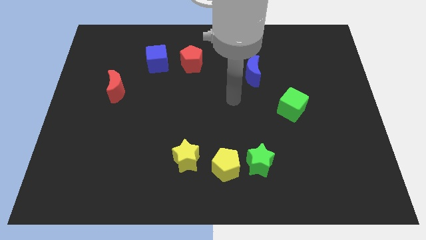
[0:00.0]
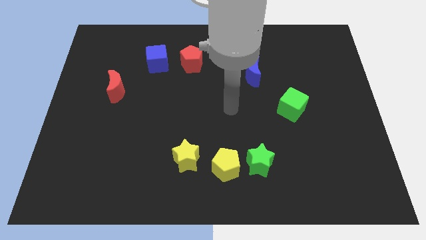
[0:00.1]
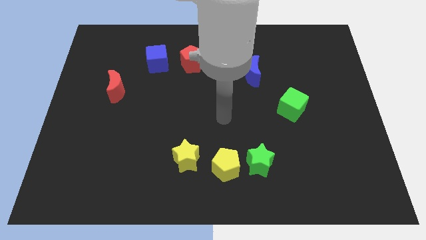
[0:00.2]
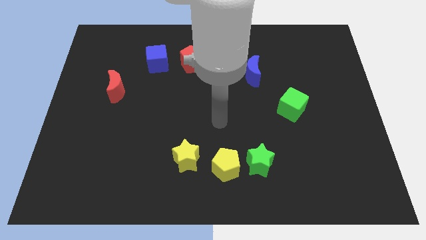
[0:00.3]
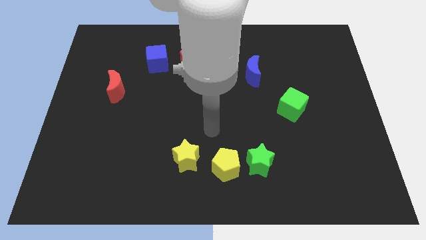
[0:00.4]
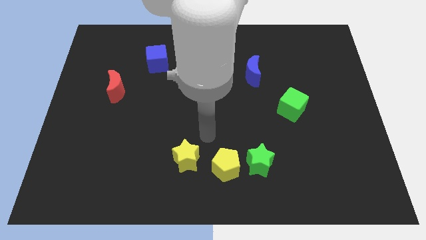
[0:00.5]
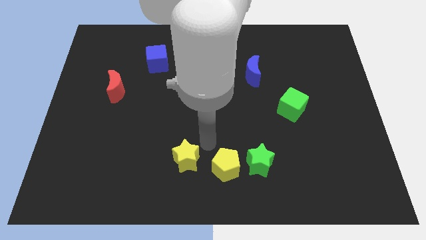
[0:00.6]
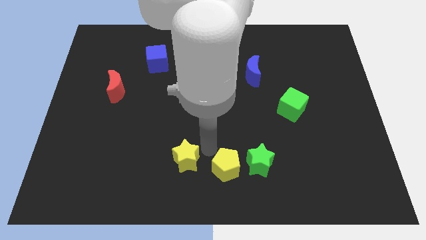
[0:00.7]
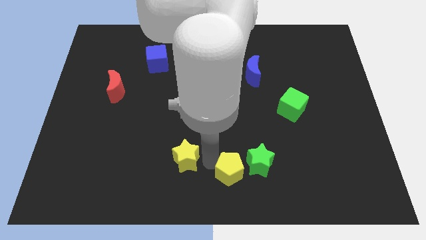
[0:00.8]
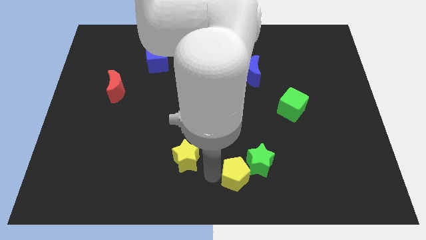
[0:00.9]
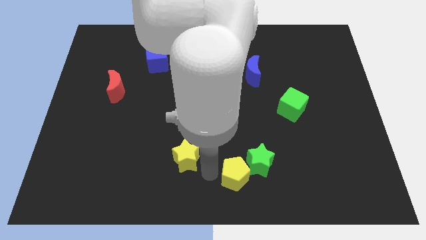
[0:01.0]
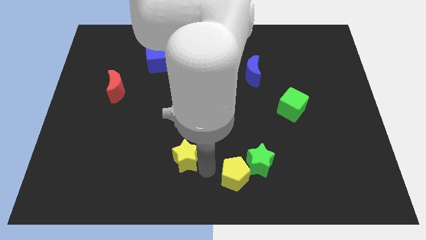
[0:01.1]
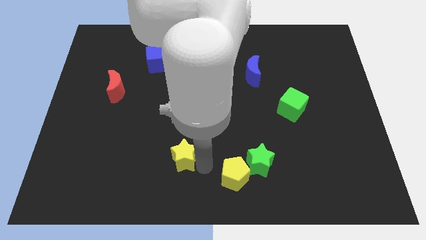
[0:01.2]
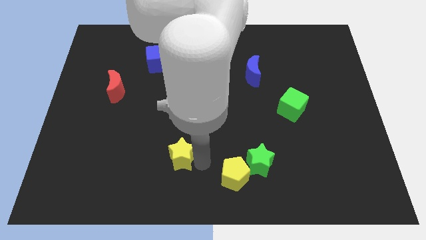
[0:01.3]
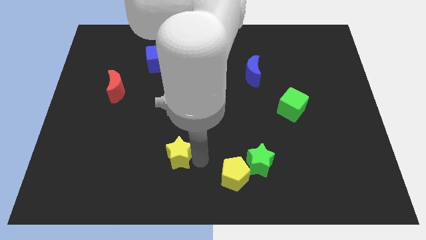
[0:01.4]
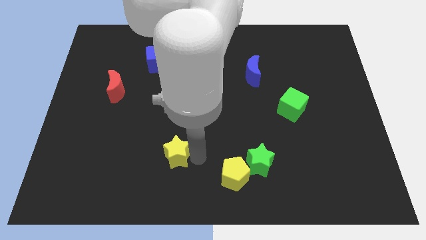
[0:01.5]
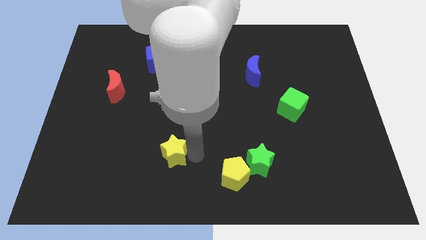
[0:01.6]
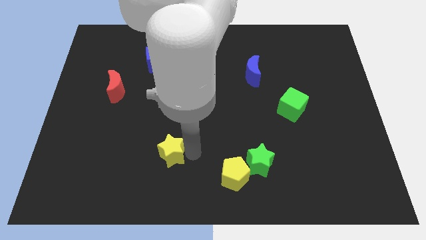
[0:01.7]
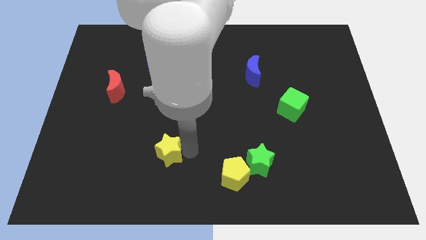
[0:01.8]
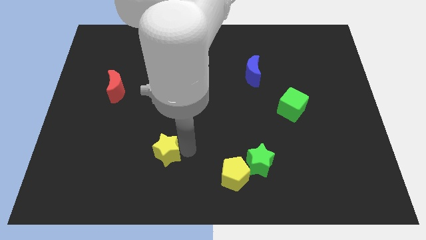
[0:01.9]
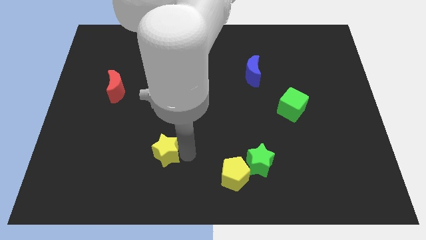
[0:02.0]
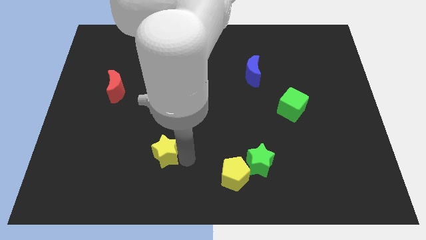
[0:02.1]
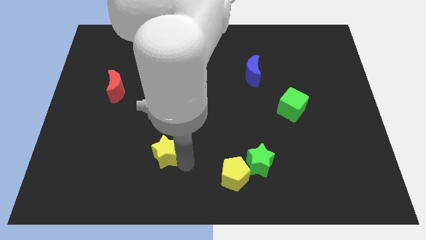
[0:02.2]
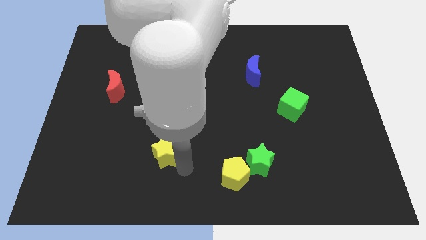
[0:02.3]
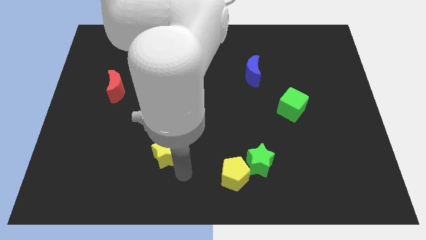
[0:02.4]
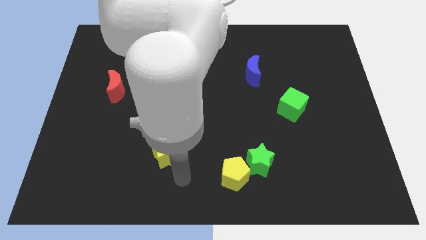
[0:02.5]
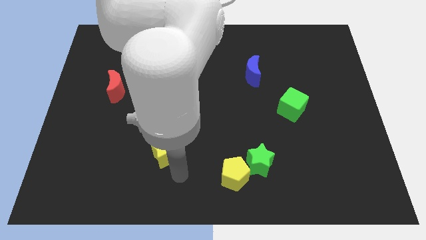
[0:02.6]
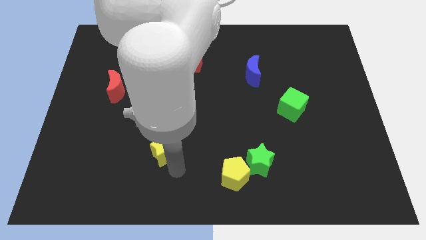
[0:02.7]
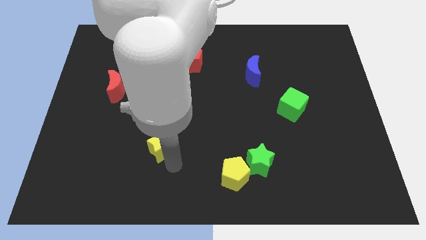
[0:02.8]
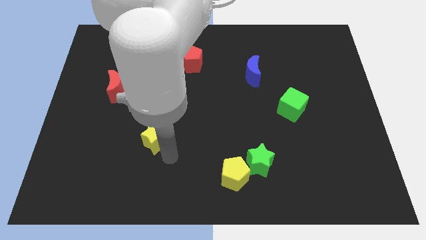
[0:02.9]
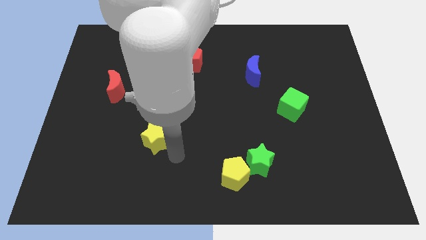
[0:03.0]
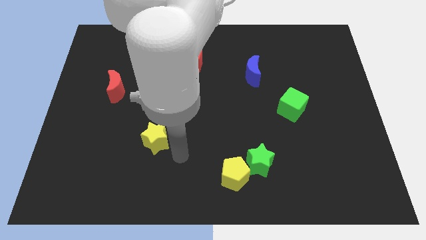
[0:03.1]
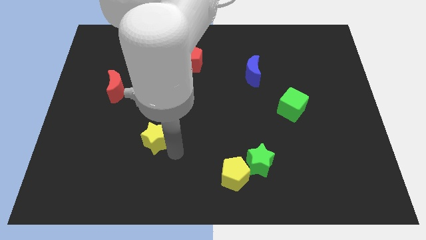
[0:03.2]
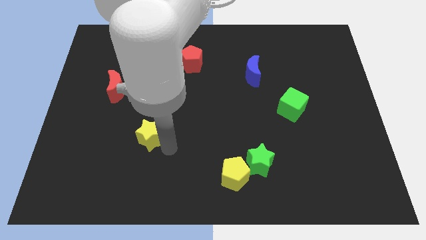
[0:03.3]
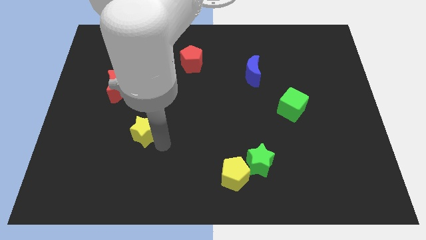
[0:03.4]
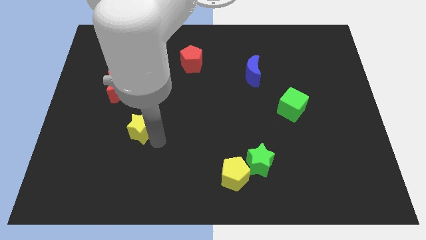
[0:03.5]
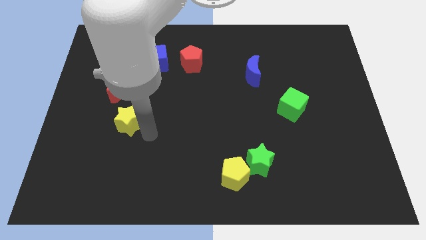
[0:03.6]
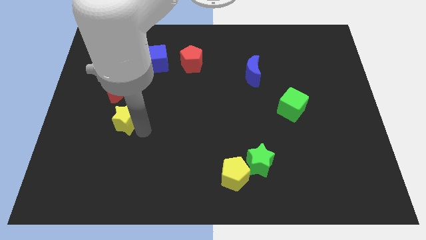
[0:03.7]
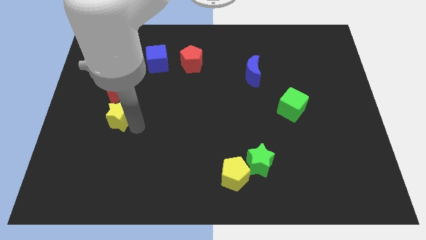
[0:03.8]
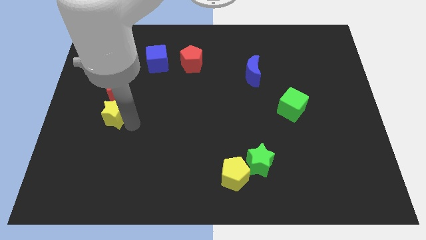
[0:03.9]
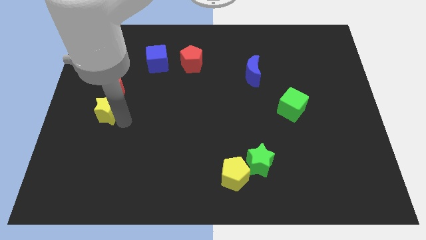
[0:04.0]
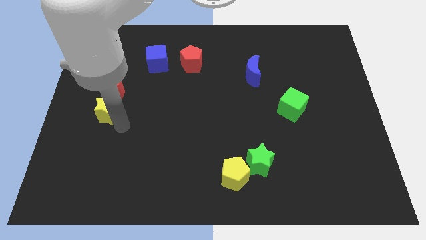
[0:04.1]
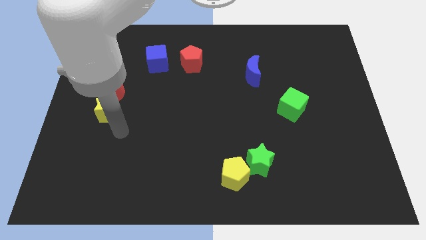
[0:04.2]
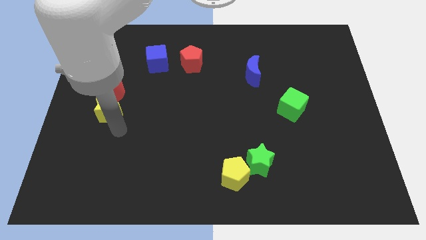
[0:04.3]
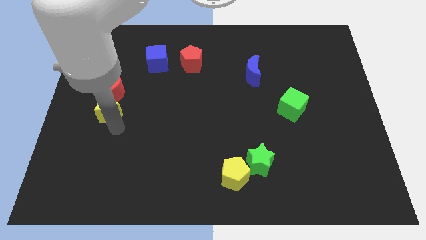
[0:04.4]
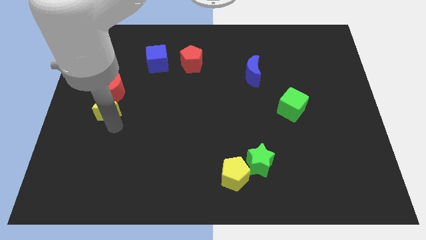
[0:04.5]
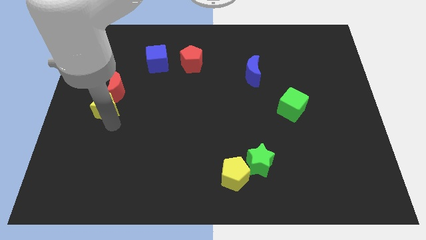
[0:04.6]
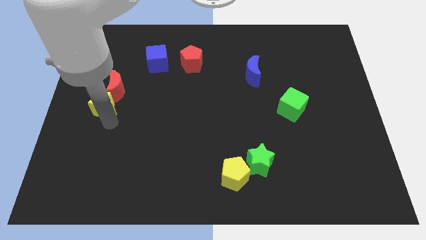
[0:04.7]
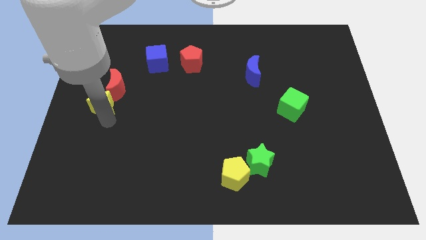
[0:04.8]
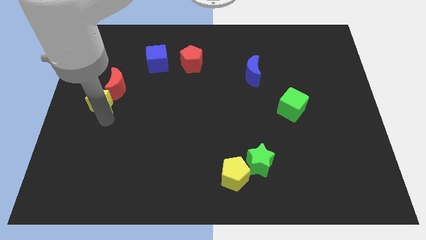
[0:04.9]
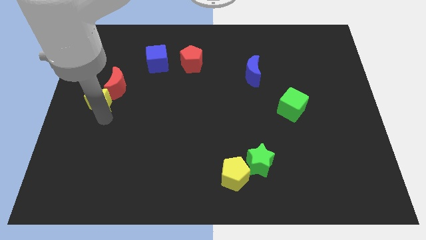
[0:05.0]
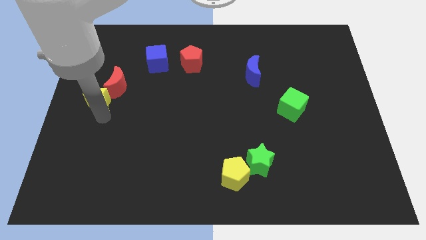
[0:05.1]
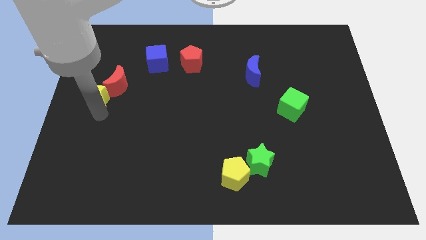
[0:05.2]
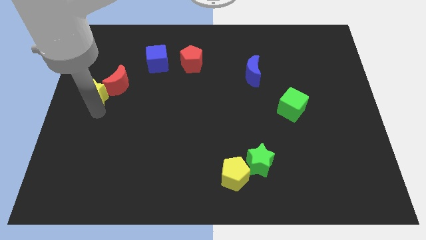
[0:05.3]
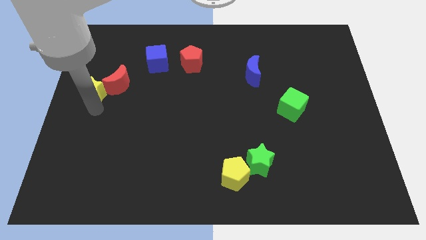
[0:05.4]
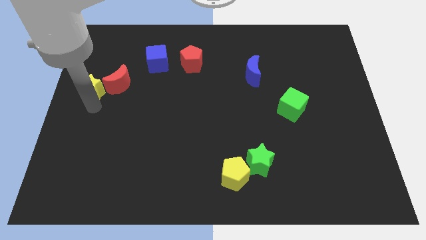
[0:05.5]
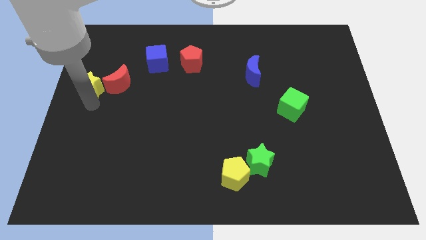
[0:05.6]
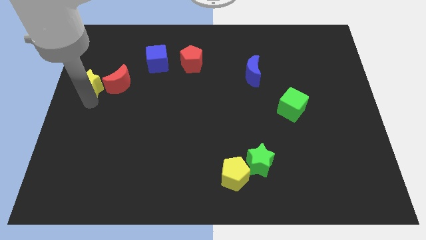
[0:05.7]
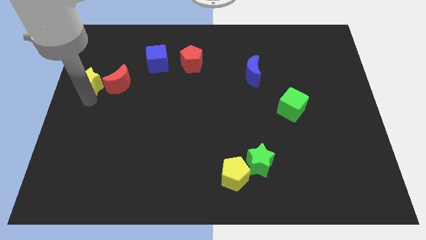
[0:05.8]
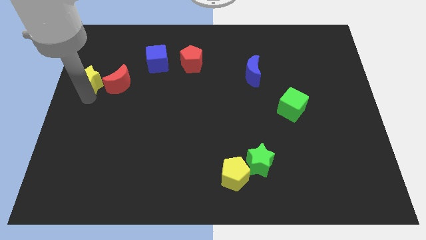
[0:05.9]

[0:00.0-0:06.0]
push the yellow star to the top left of the red moon

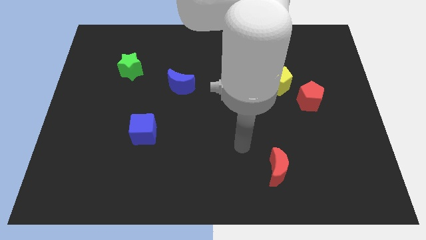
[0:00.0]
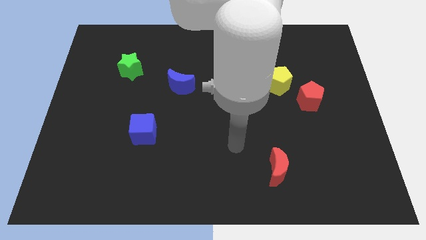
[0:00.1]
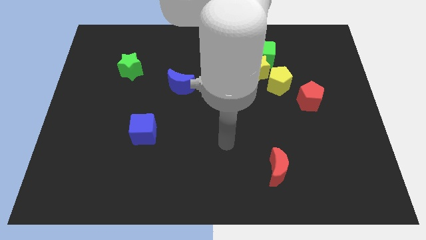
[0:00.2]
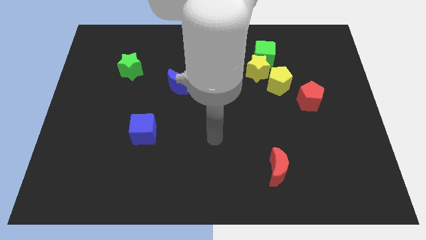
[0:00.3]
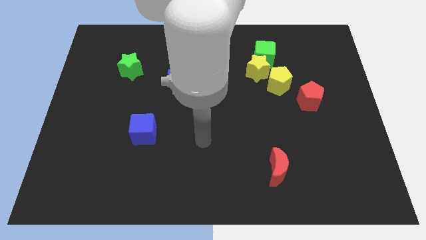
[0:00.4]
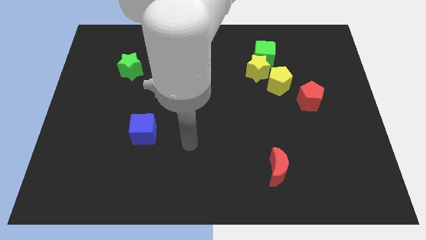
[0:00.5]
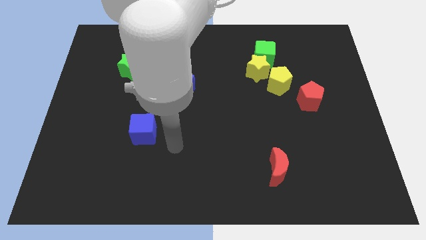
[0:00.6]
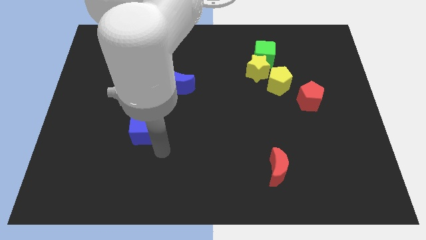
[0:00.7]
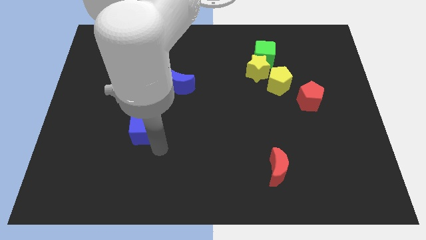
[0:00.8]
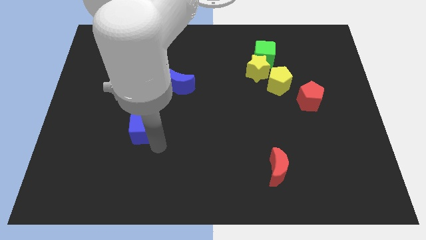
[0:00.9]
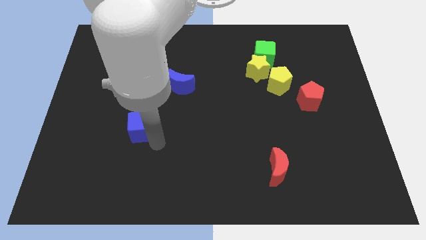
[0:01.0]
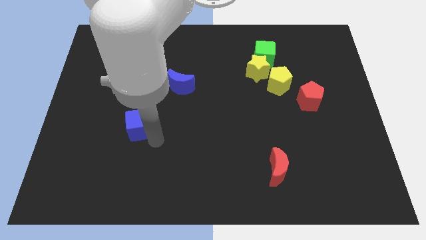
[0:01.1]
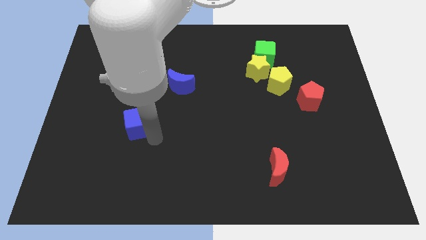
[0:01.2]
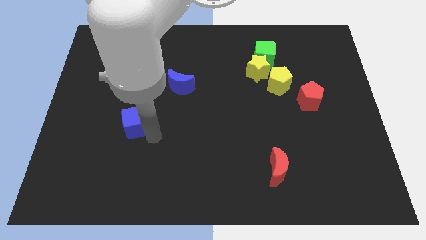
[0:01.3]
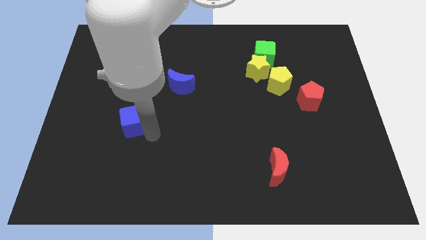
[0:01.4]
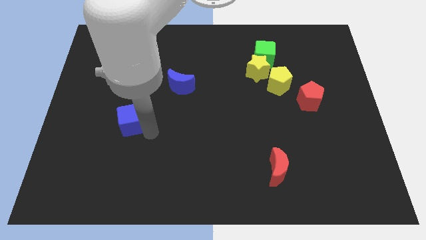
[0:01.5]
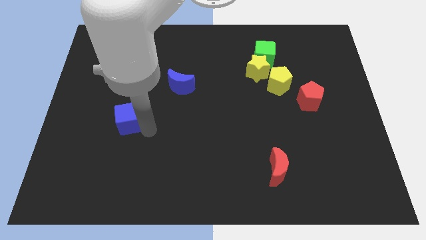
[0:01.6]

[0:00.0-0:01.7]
slide the blue cube to the bottom of the green star
